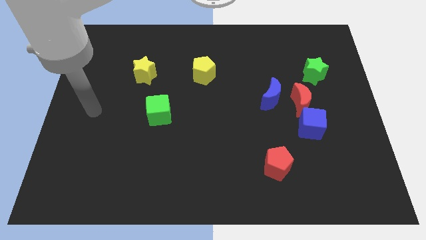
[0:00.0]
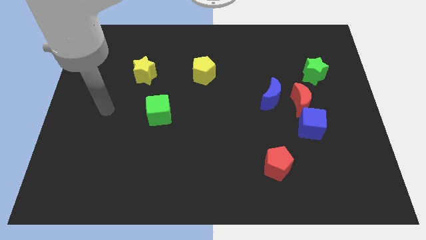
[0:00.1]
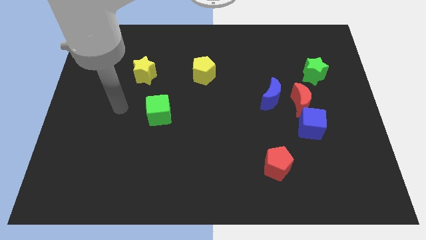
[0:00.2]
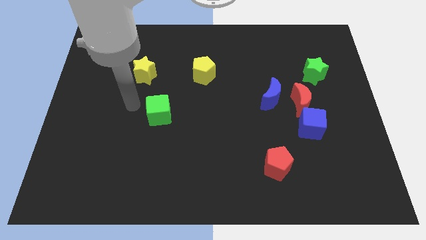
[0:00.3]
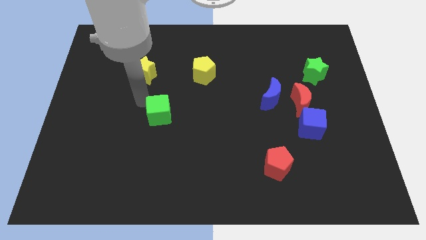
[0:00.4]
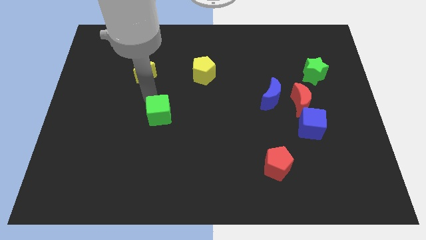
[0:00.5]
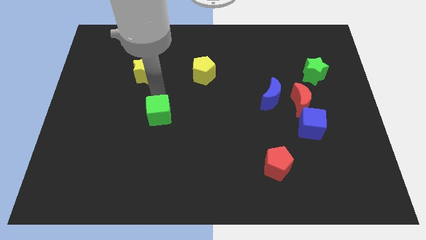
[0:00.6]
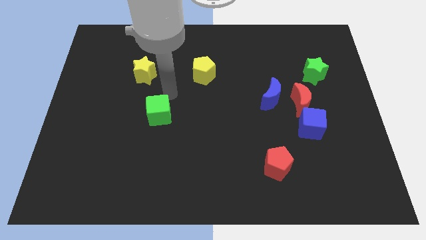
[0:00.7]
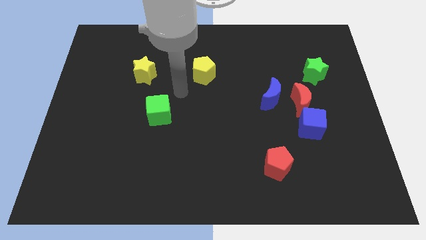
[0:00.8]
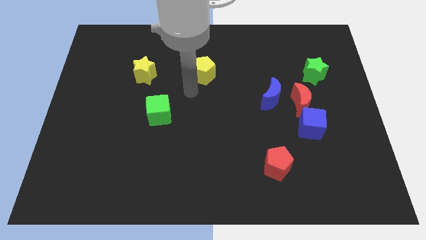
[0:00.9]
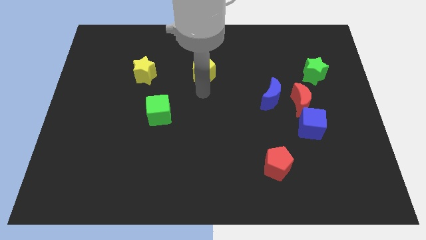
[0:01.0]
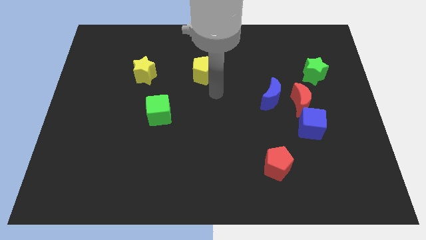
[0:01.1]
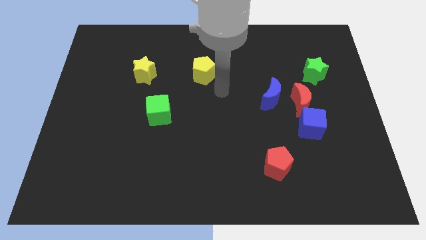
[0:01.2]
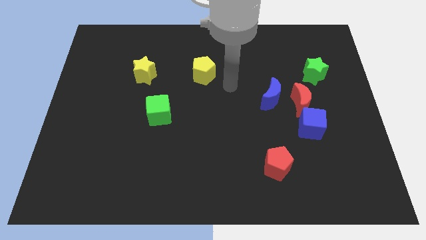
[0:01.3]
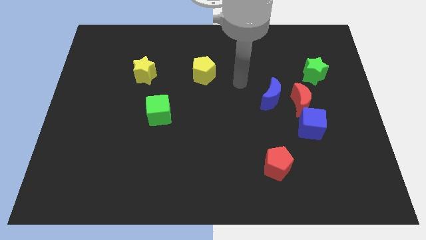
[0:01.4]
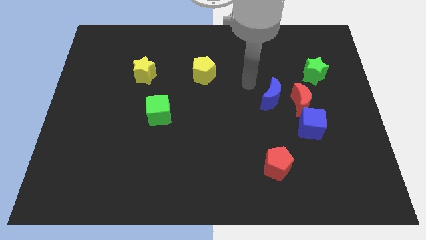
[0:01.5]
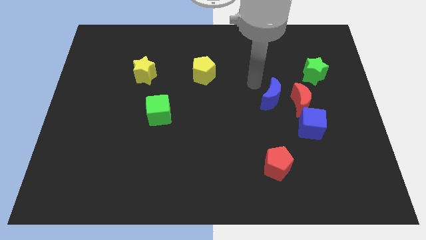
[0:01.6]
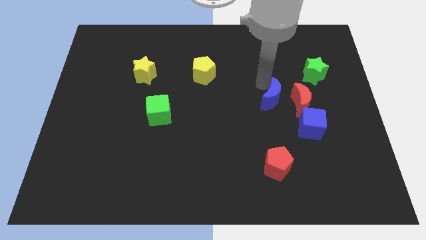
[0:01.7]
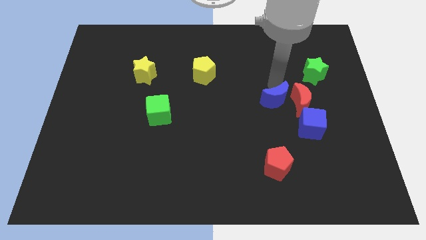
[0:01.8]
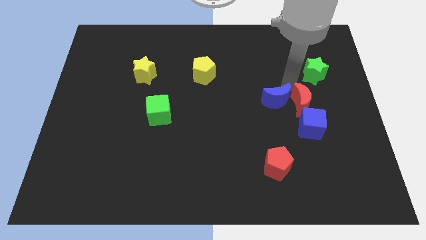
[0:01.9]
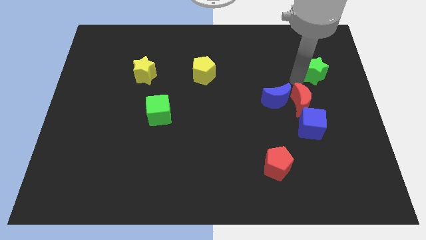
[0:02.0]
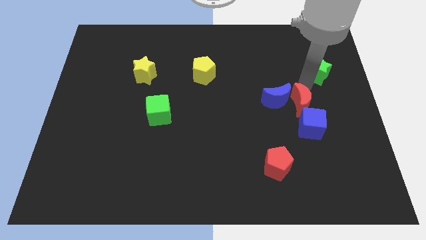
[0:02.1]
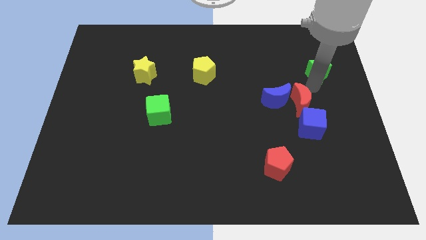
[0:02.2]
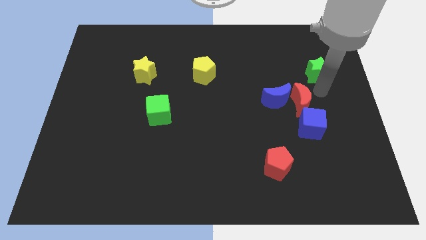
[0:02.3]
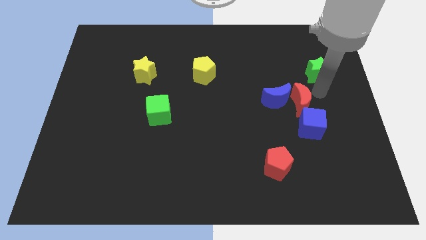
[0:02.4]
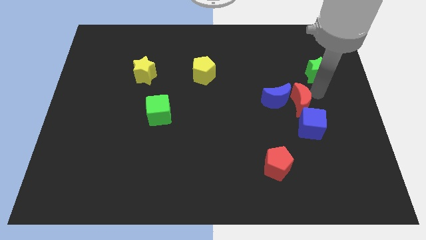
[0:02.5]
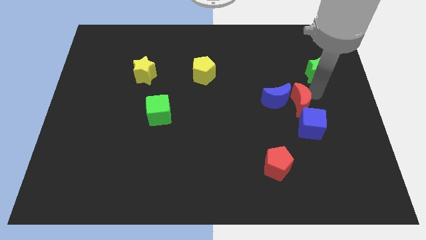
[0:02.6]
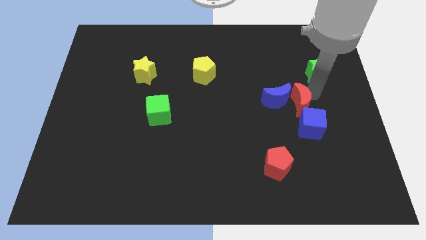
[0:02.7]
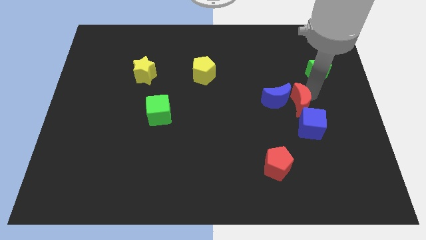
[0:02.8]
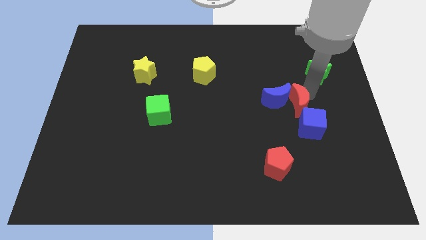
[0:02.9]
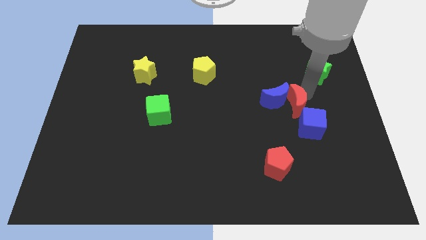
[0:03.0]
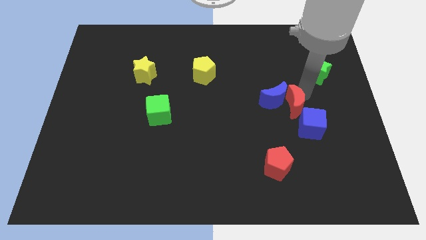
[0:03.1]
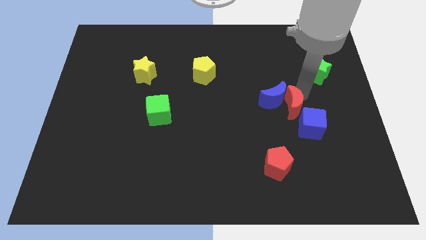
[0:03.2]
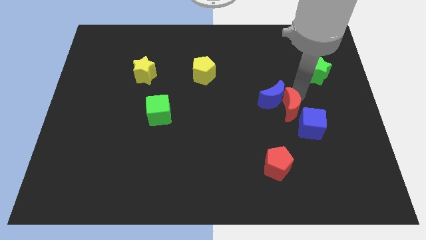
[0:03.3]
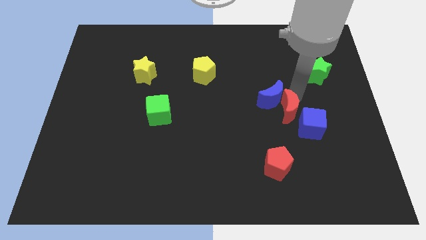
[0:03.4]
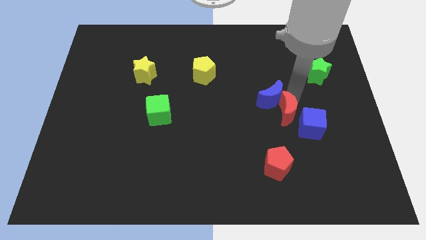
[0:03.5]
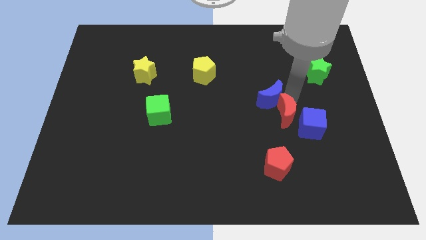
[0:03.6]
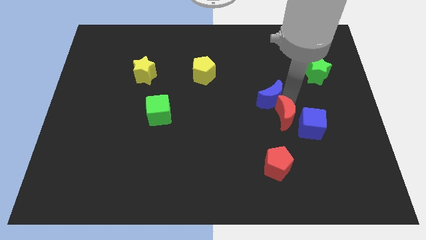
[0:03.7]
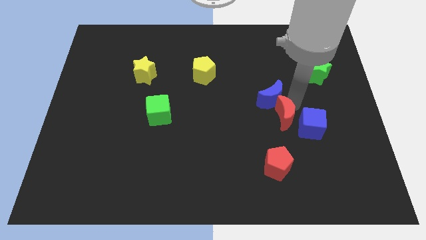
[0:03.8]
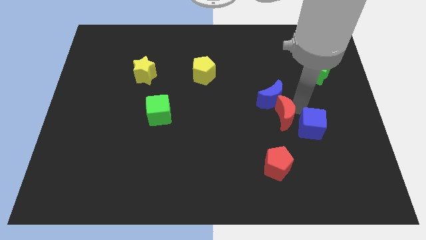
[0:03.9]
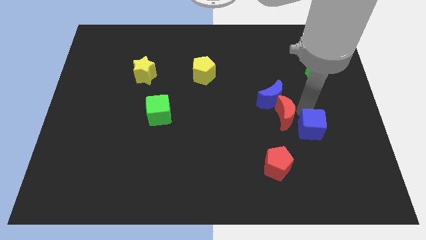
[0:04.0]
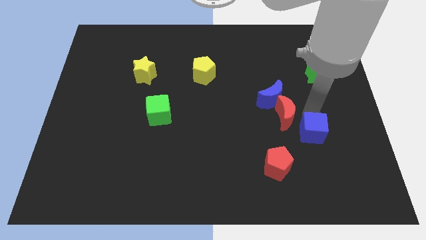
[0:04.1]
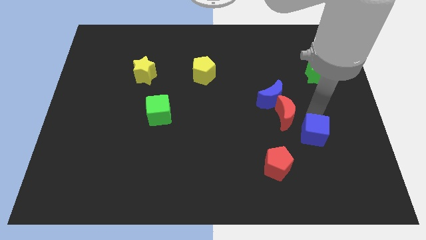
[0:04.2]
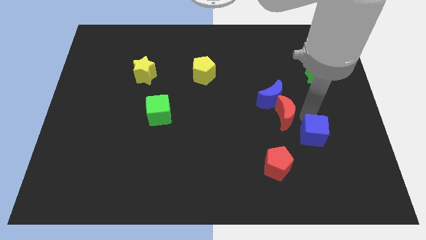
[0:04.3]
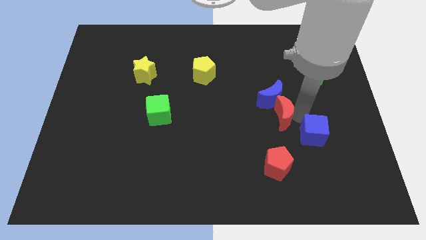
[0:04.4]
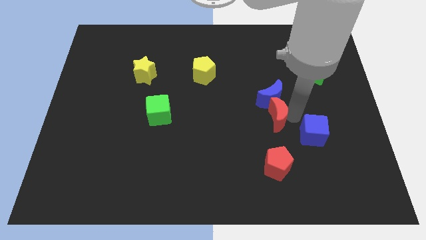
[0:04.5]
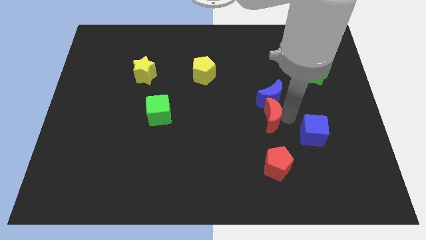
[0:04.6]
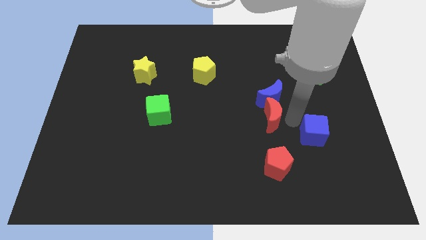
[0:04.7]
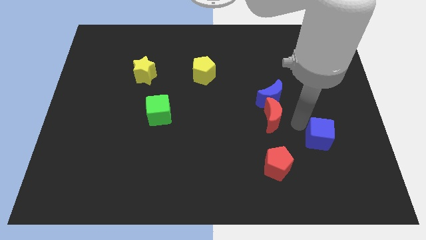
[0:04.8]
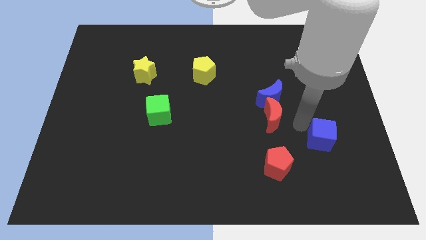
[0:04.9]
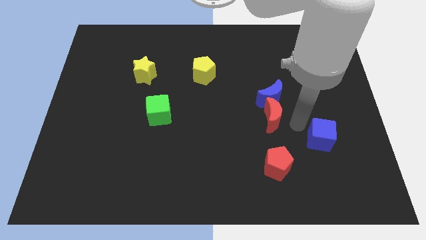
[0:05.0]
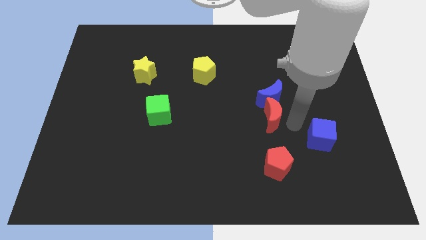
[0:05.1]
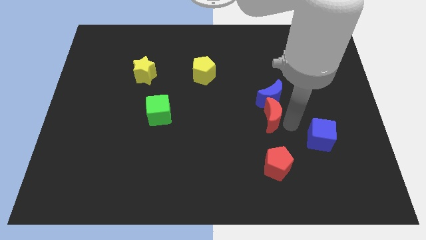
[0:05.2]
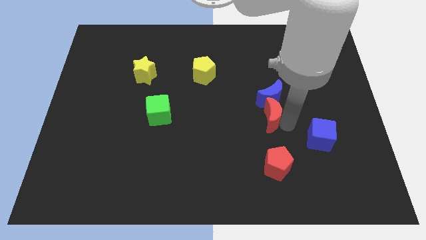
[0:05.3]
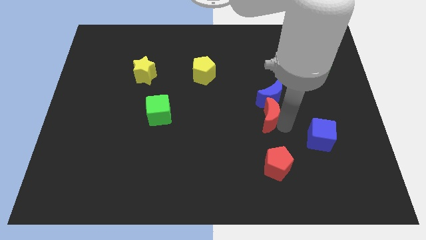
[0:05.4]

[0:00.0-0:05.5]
slightly slide the red moon left

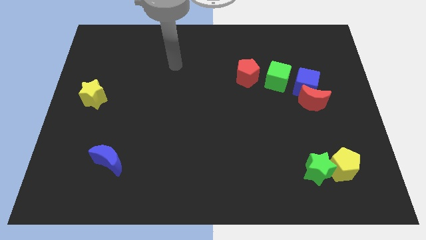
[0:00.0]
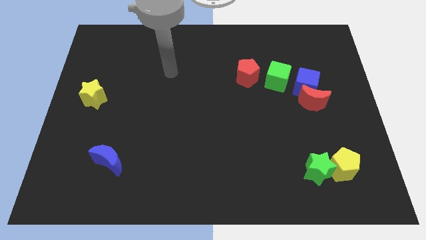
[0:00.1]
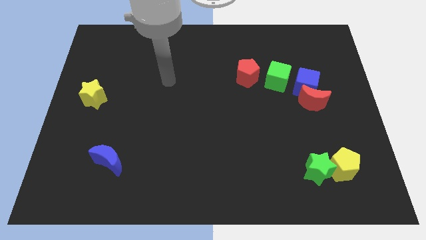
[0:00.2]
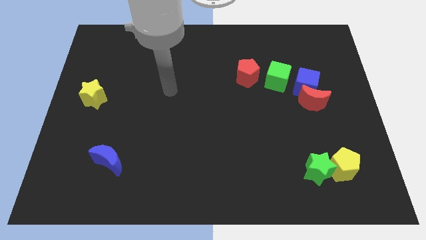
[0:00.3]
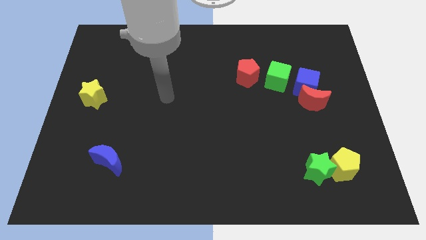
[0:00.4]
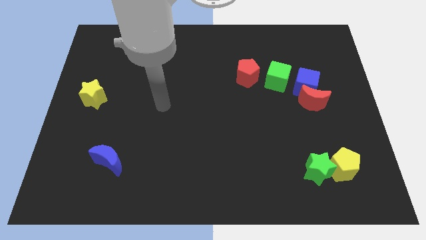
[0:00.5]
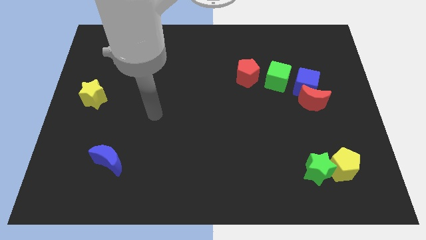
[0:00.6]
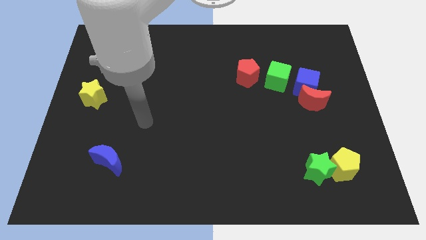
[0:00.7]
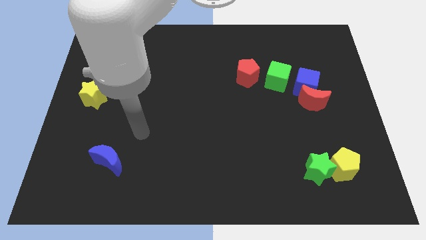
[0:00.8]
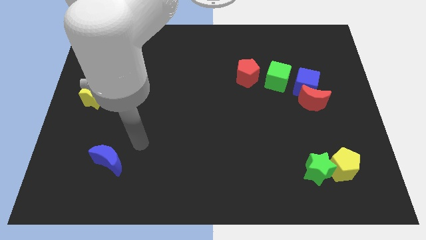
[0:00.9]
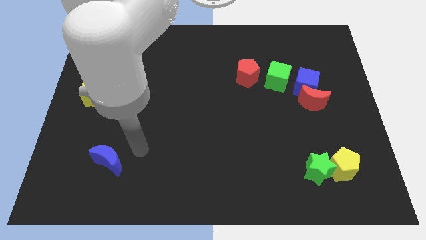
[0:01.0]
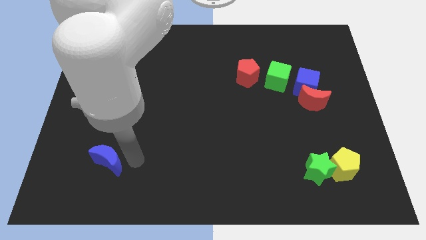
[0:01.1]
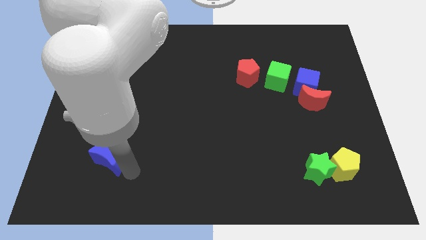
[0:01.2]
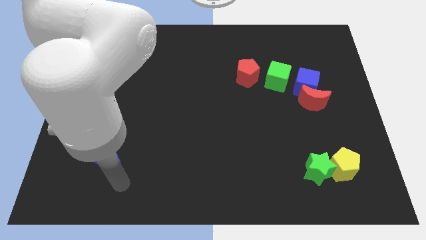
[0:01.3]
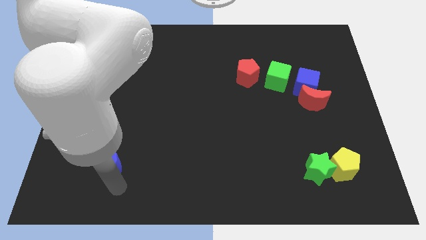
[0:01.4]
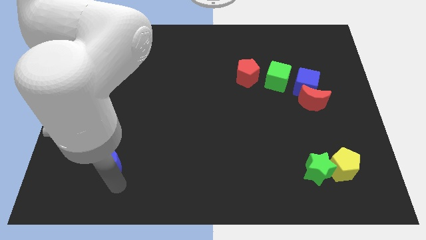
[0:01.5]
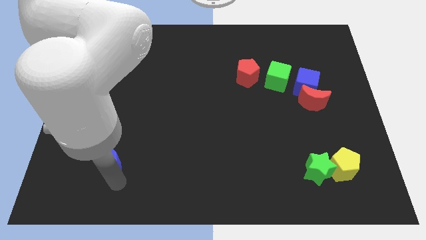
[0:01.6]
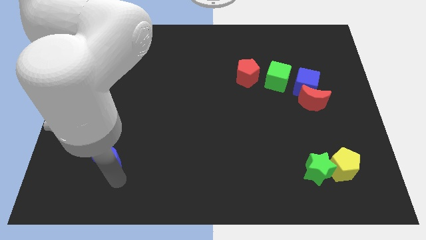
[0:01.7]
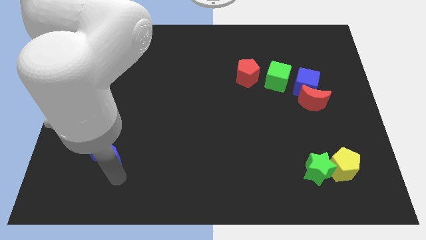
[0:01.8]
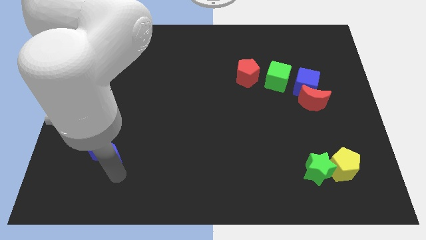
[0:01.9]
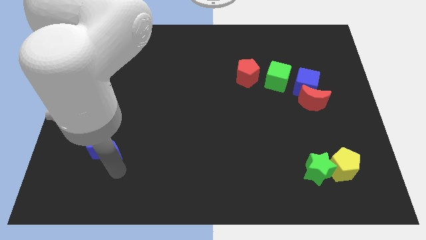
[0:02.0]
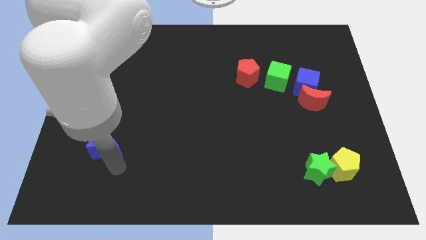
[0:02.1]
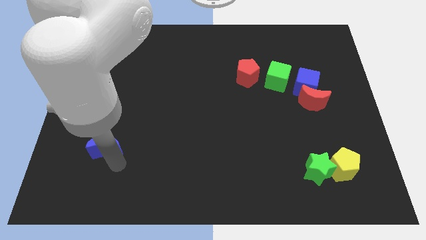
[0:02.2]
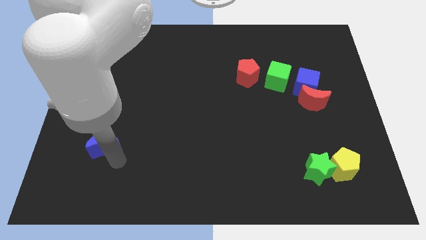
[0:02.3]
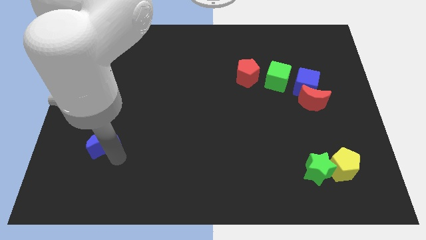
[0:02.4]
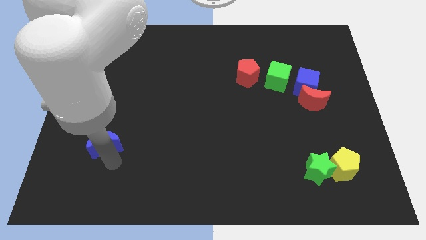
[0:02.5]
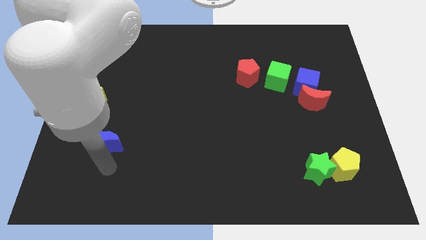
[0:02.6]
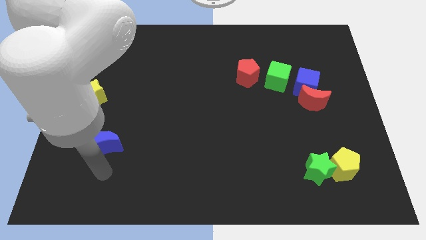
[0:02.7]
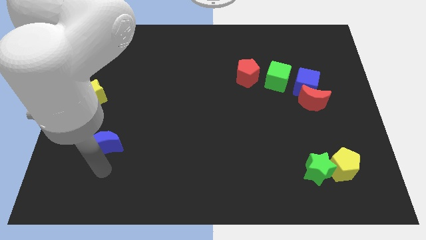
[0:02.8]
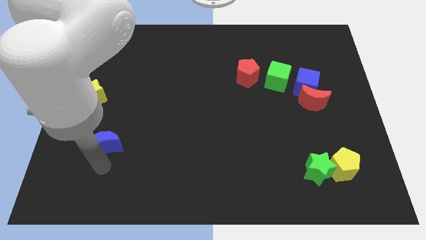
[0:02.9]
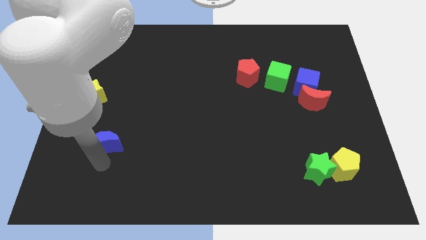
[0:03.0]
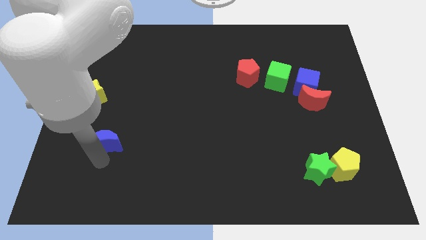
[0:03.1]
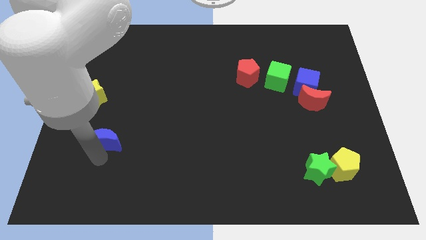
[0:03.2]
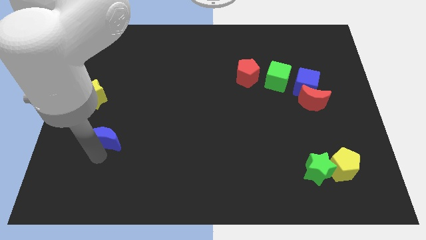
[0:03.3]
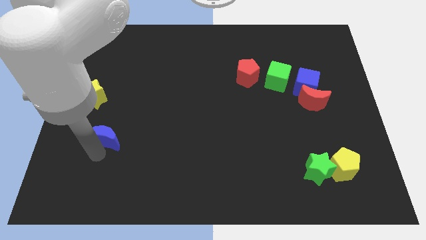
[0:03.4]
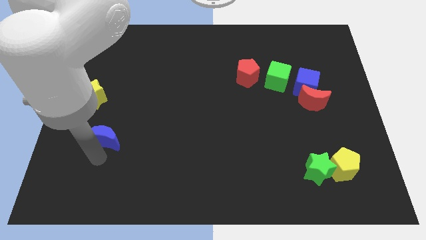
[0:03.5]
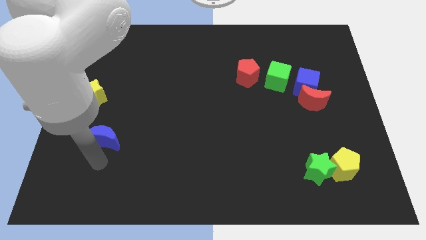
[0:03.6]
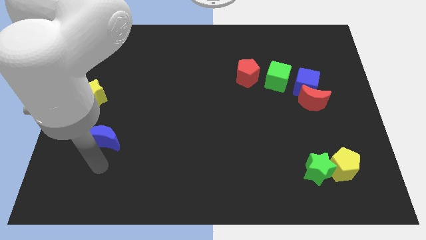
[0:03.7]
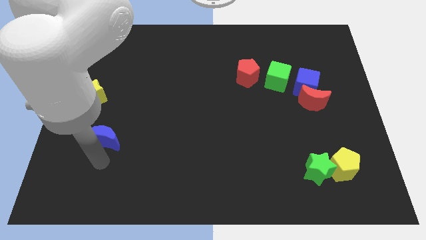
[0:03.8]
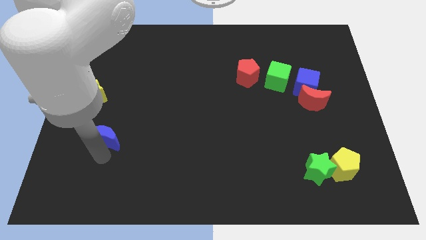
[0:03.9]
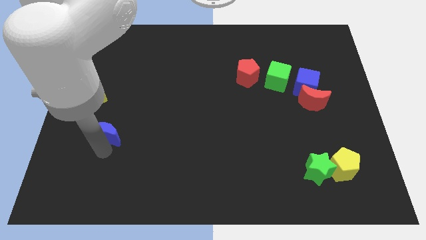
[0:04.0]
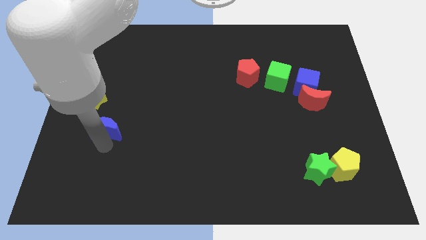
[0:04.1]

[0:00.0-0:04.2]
push the blue moon a bit up
